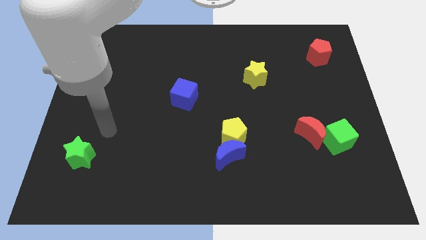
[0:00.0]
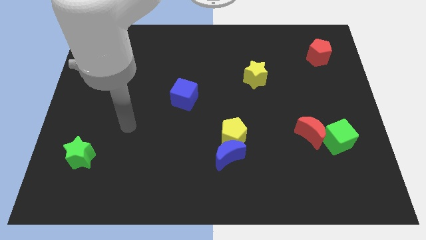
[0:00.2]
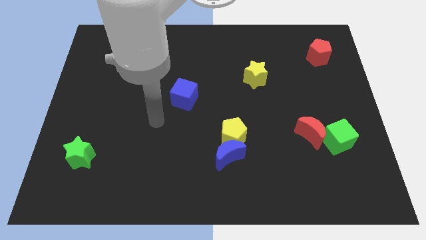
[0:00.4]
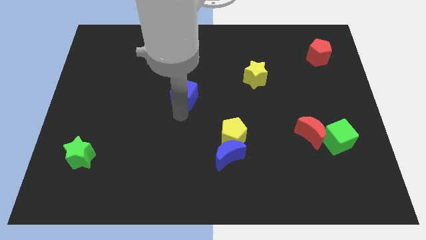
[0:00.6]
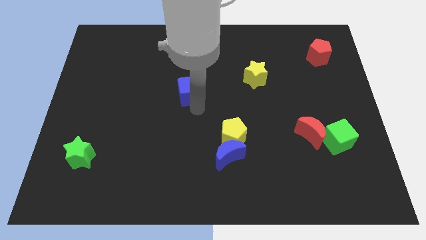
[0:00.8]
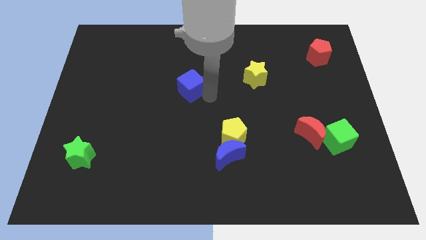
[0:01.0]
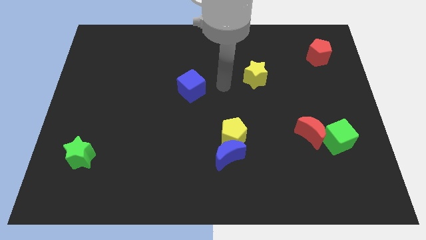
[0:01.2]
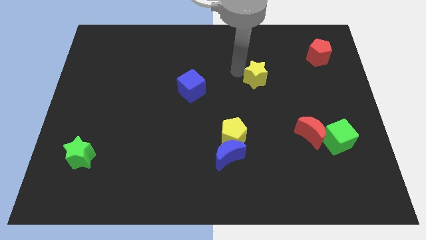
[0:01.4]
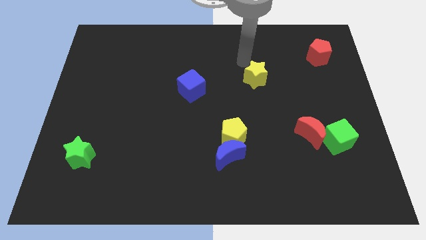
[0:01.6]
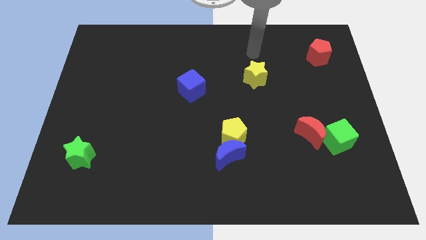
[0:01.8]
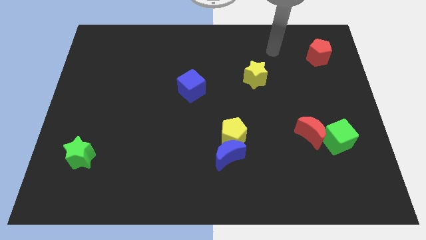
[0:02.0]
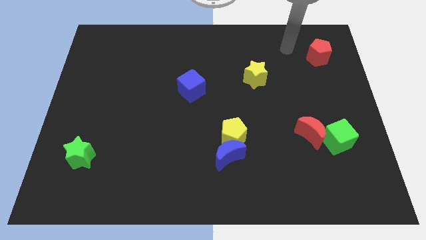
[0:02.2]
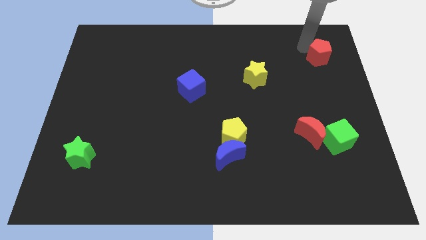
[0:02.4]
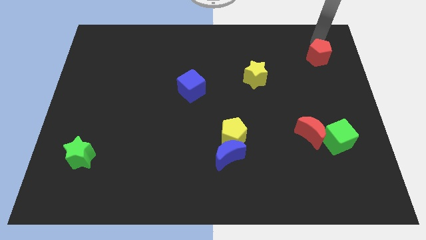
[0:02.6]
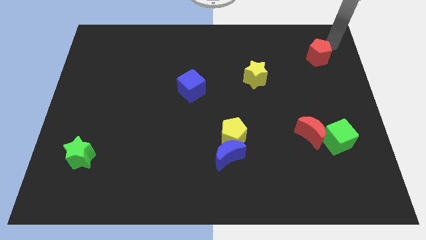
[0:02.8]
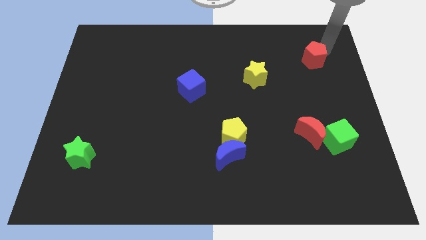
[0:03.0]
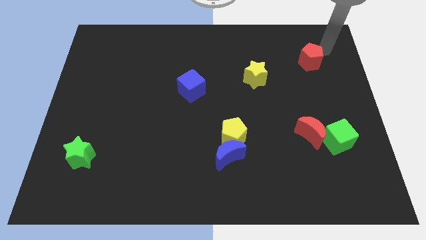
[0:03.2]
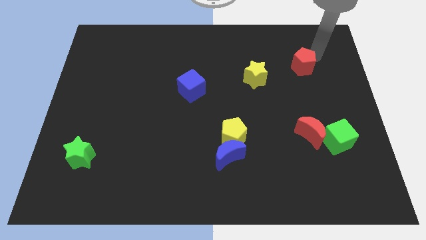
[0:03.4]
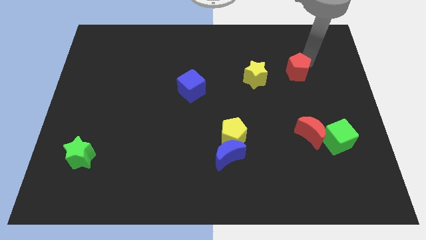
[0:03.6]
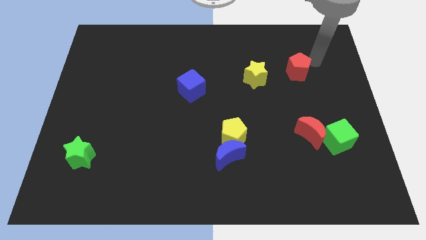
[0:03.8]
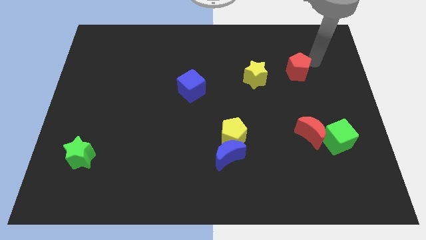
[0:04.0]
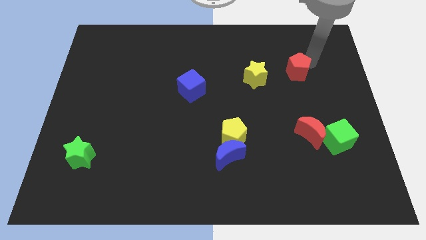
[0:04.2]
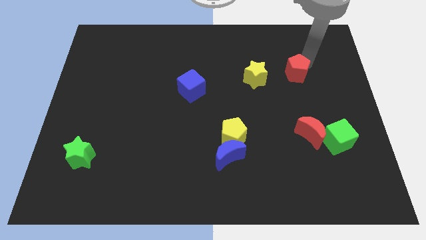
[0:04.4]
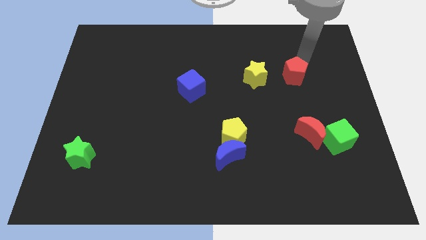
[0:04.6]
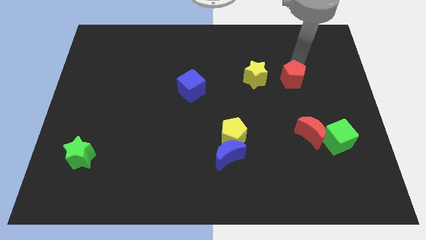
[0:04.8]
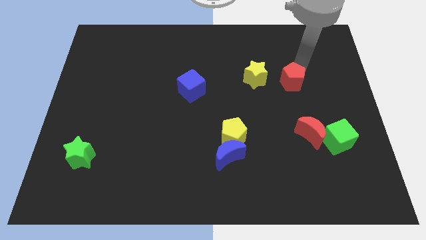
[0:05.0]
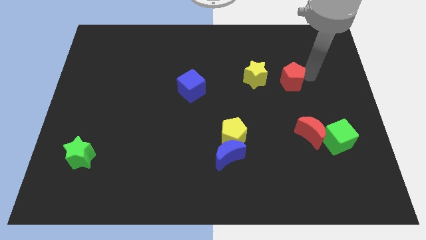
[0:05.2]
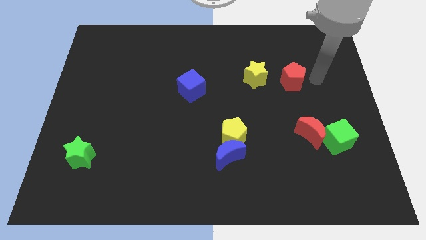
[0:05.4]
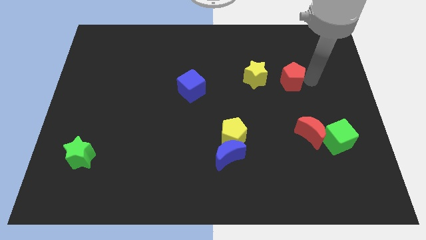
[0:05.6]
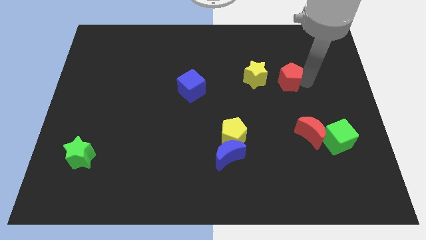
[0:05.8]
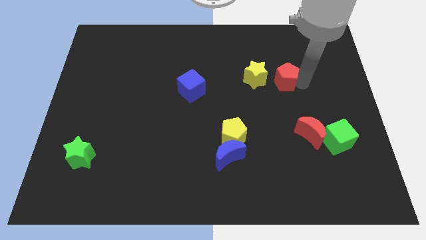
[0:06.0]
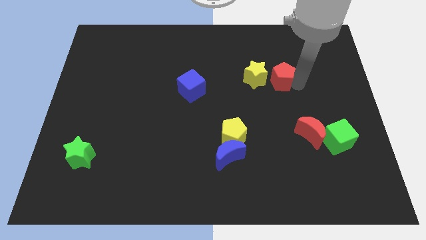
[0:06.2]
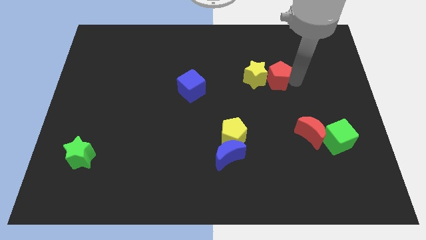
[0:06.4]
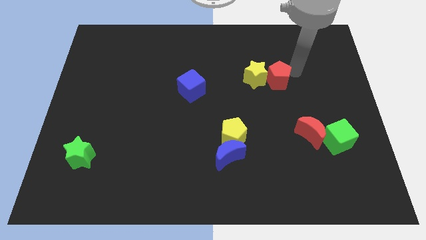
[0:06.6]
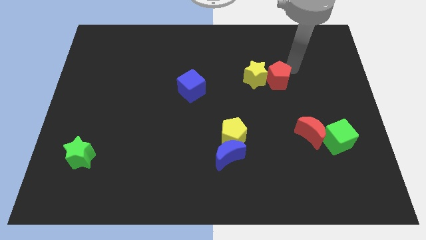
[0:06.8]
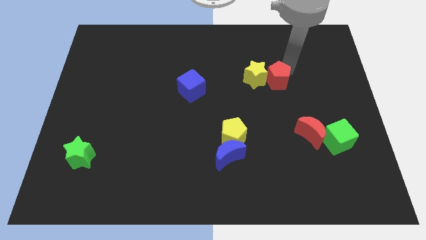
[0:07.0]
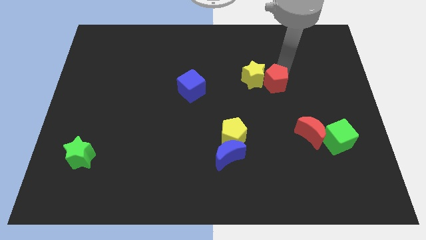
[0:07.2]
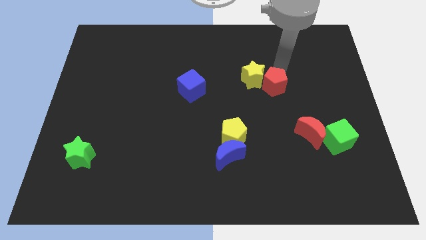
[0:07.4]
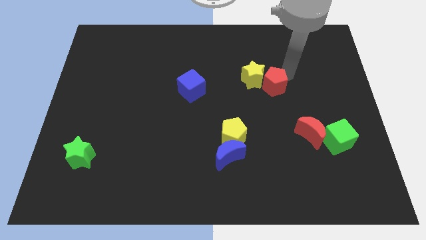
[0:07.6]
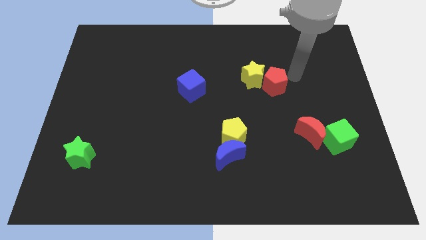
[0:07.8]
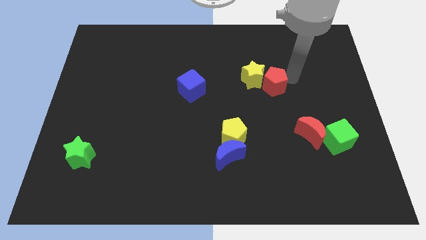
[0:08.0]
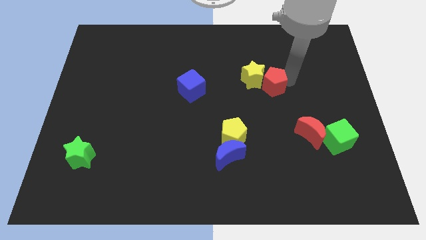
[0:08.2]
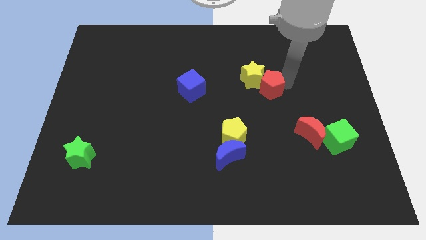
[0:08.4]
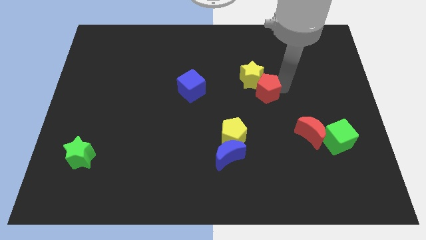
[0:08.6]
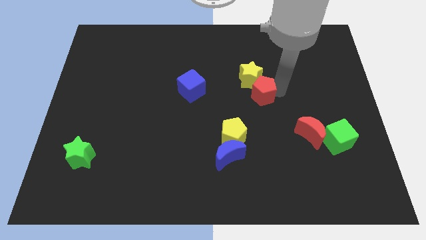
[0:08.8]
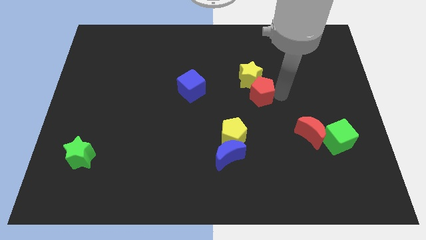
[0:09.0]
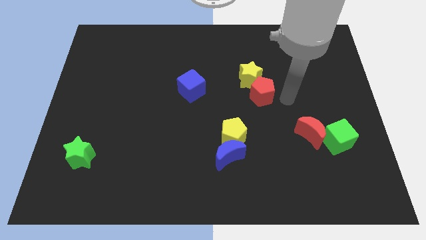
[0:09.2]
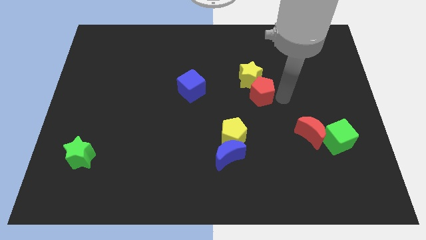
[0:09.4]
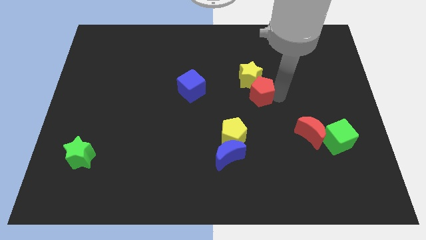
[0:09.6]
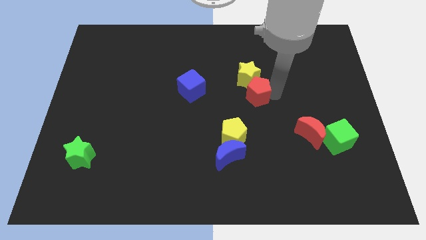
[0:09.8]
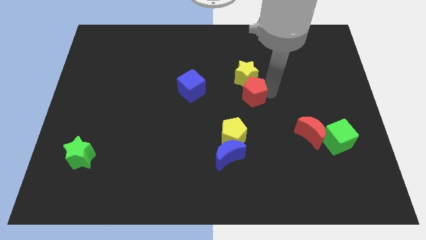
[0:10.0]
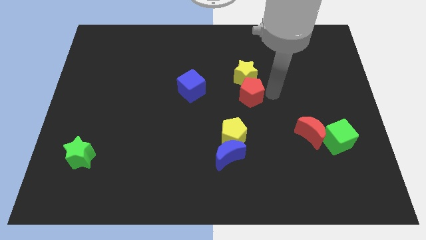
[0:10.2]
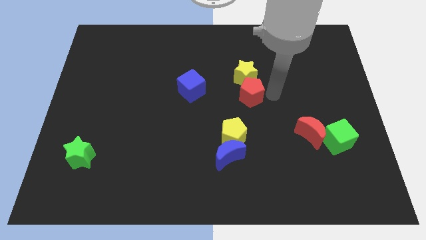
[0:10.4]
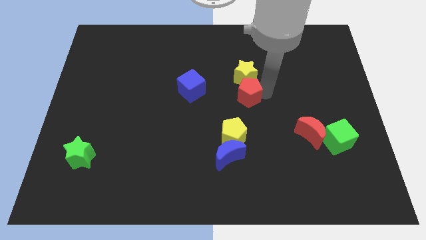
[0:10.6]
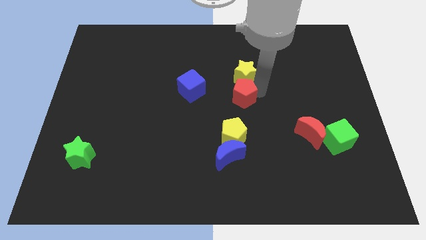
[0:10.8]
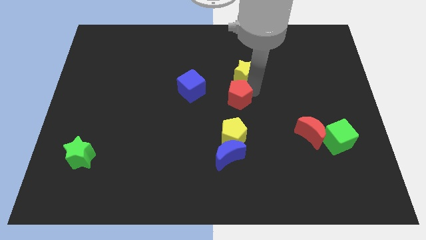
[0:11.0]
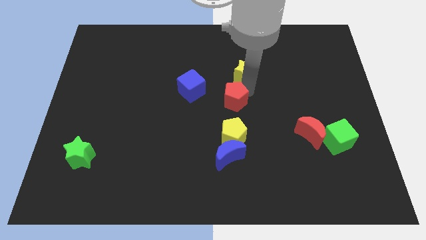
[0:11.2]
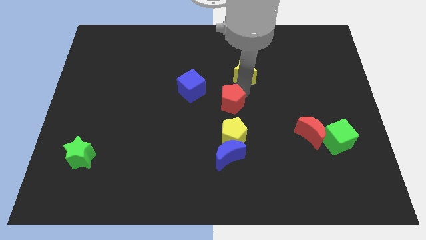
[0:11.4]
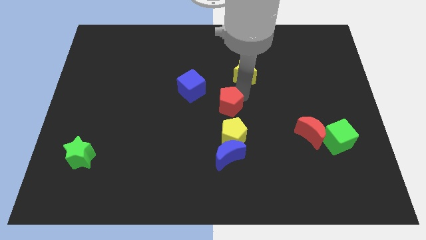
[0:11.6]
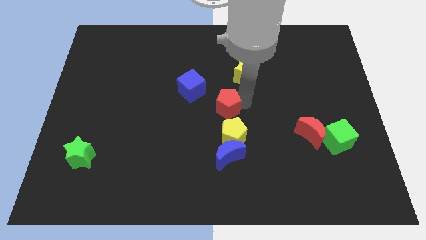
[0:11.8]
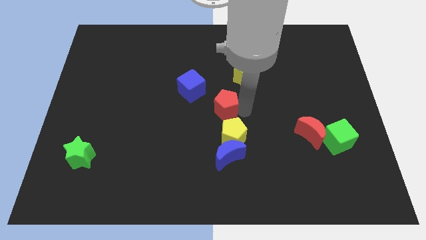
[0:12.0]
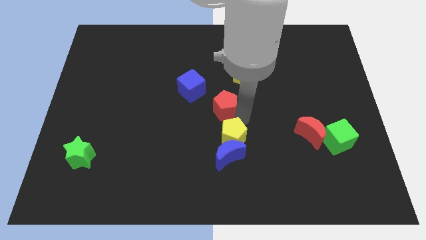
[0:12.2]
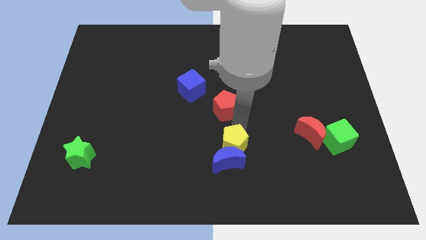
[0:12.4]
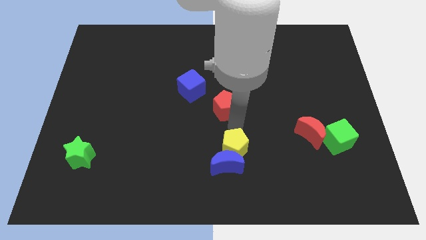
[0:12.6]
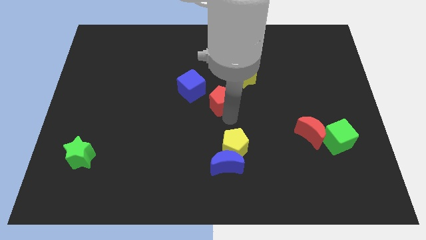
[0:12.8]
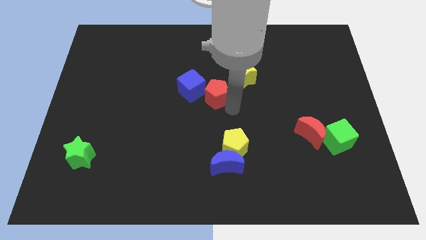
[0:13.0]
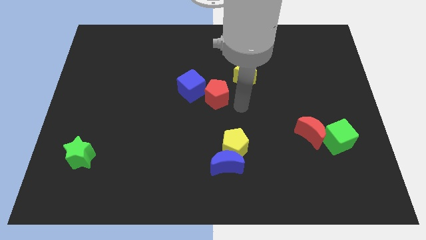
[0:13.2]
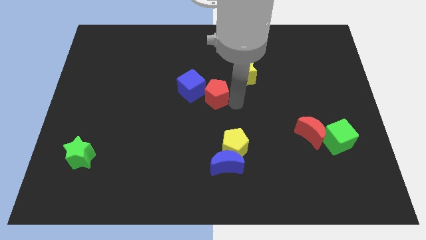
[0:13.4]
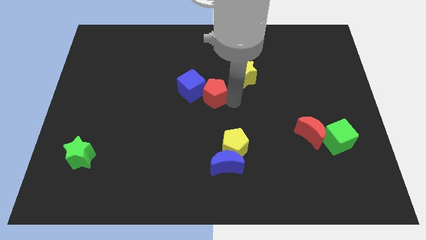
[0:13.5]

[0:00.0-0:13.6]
put the red pentagon close to the blue cube

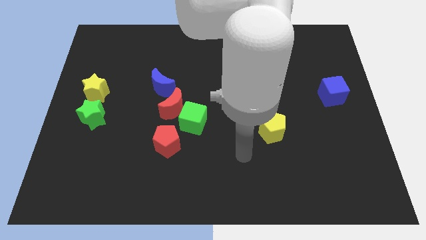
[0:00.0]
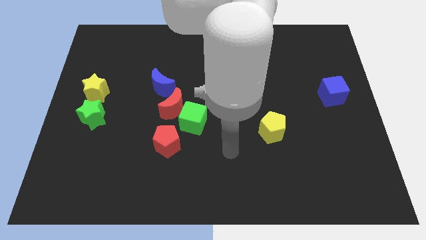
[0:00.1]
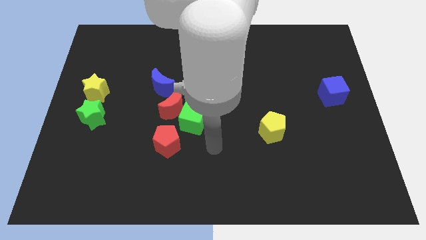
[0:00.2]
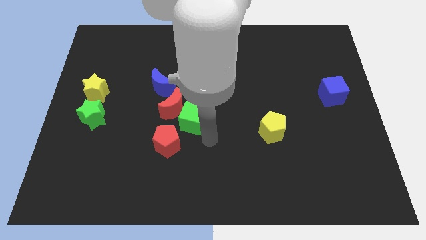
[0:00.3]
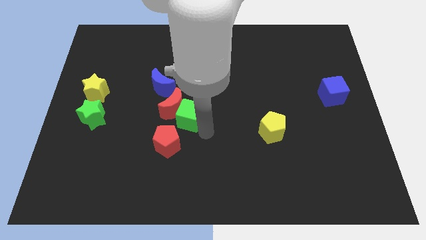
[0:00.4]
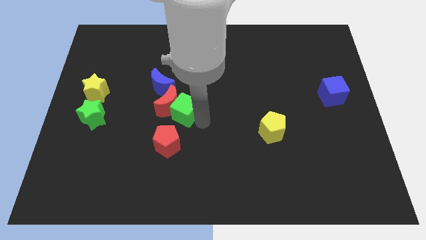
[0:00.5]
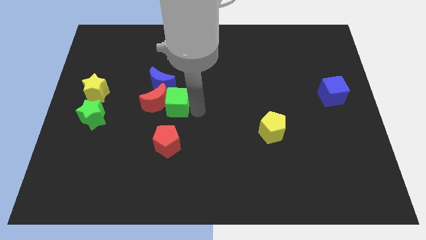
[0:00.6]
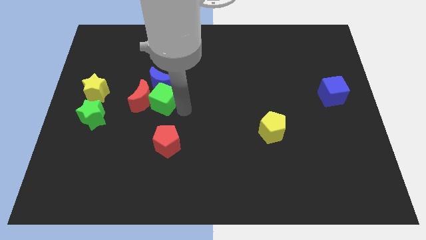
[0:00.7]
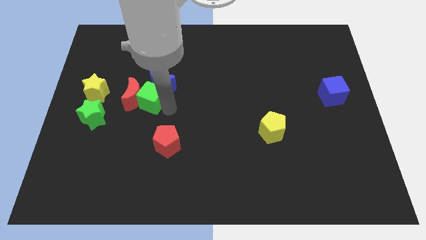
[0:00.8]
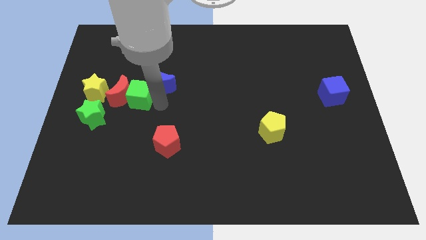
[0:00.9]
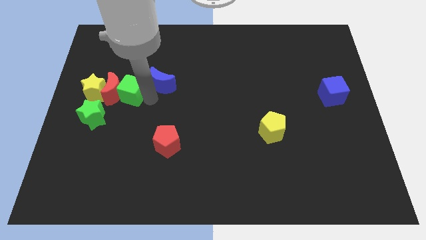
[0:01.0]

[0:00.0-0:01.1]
move the red moon towards the yellow star

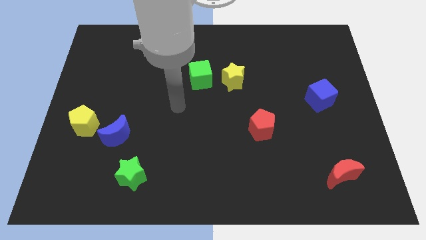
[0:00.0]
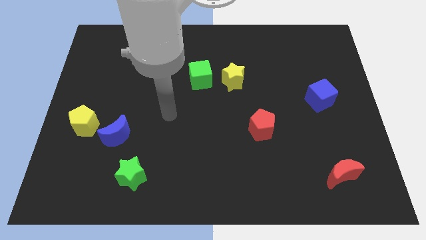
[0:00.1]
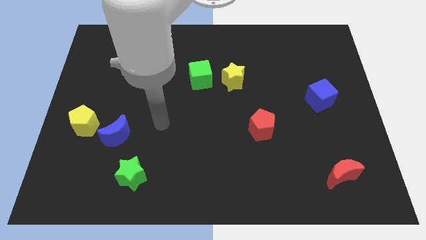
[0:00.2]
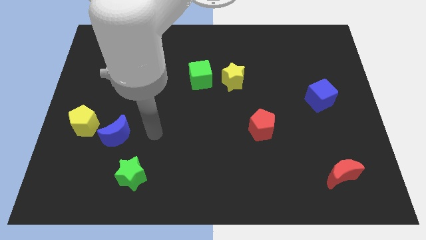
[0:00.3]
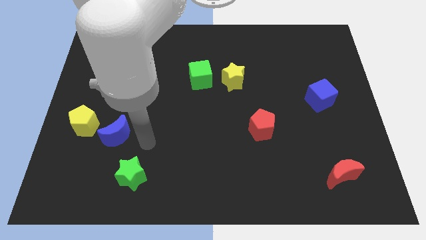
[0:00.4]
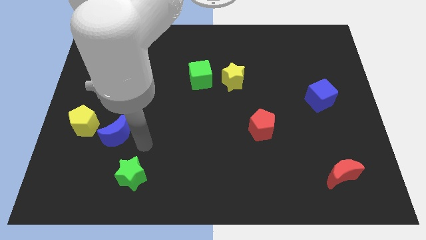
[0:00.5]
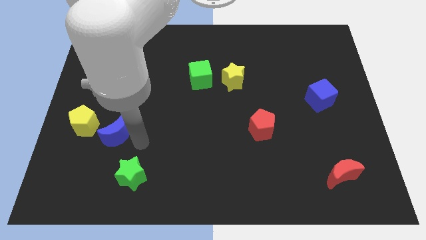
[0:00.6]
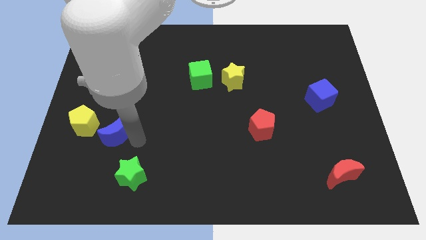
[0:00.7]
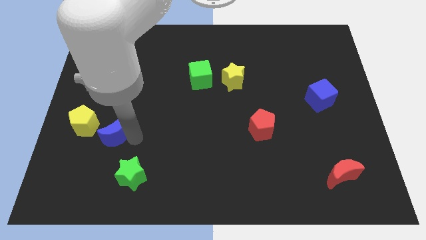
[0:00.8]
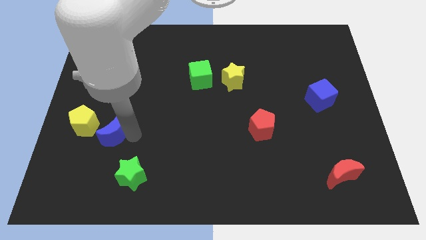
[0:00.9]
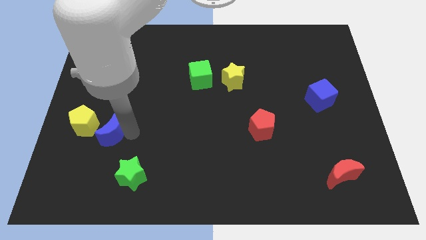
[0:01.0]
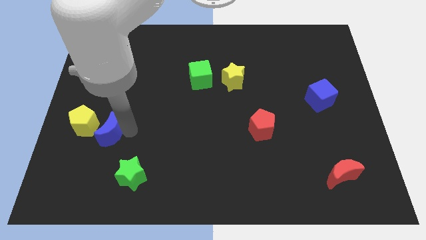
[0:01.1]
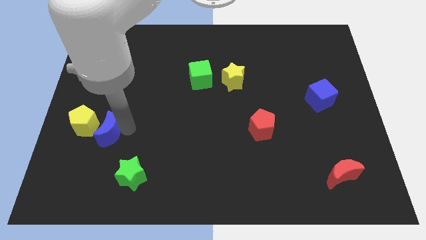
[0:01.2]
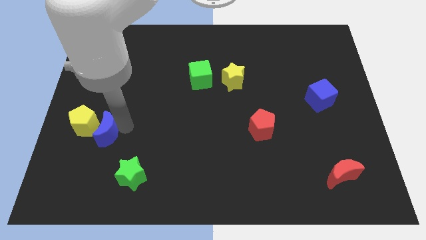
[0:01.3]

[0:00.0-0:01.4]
move the blue moon next to the yellow pentagon
